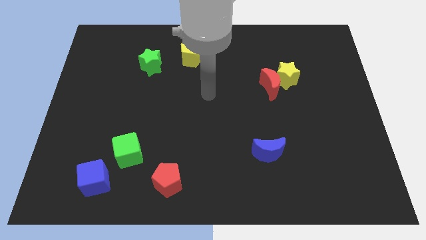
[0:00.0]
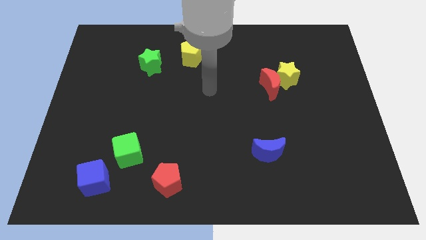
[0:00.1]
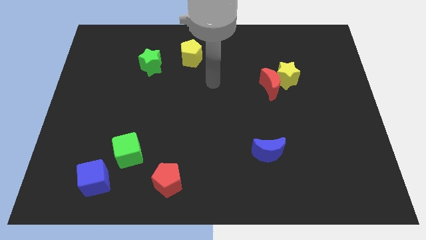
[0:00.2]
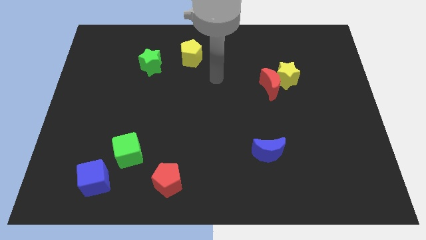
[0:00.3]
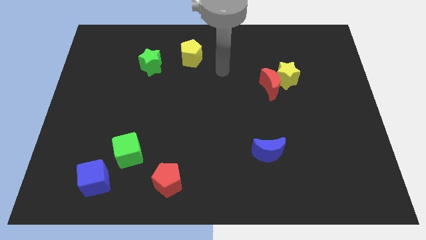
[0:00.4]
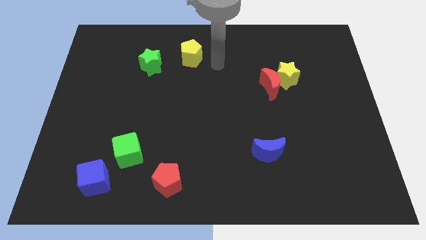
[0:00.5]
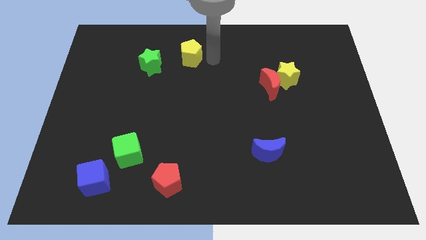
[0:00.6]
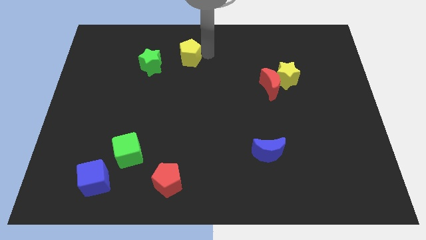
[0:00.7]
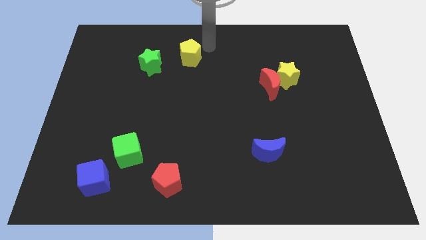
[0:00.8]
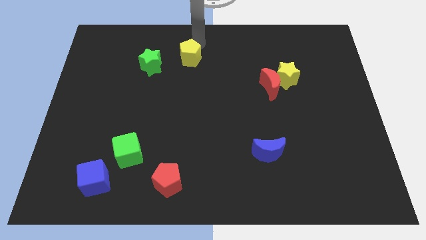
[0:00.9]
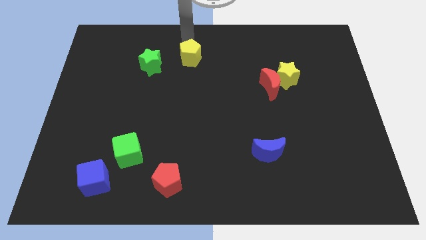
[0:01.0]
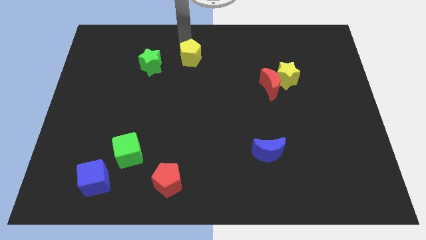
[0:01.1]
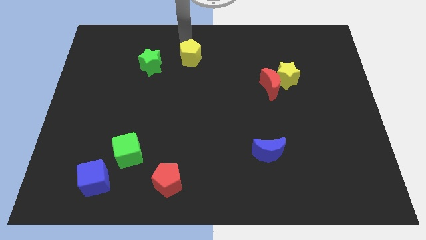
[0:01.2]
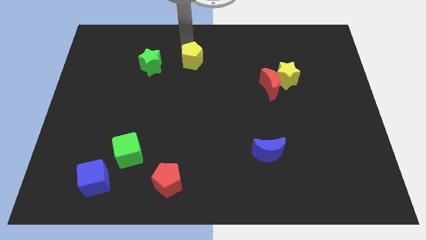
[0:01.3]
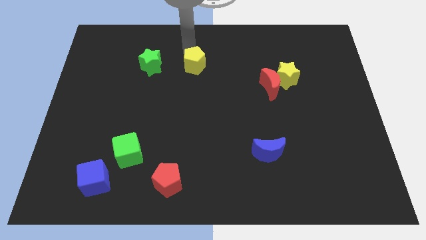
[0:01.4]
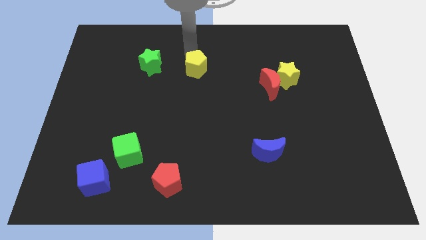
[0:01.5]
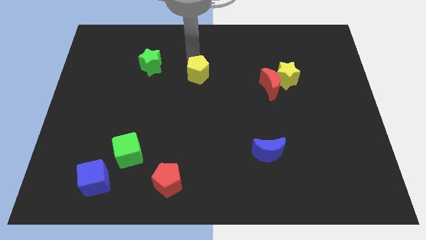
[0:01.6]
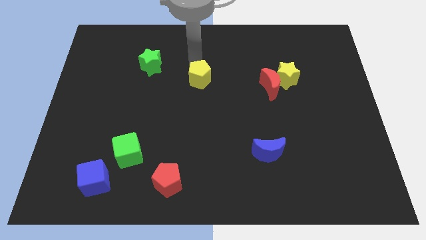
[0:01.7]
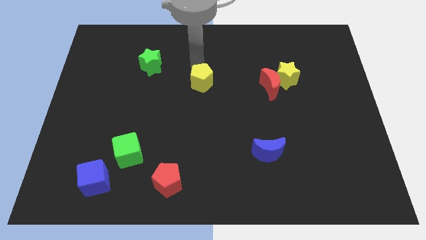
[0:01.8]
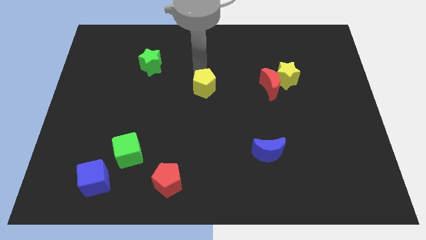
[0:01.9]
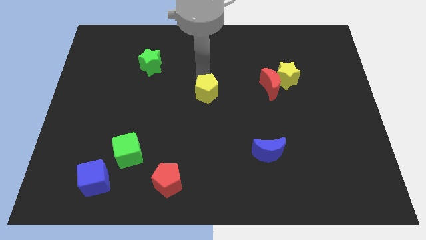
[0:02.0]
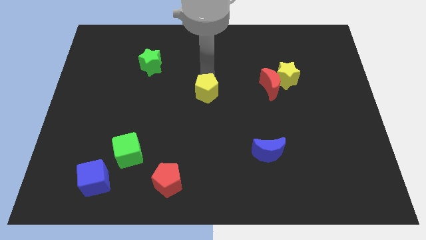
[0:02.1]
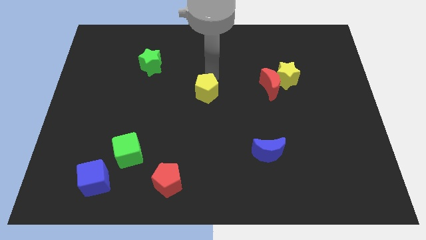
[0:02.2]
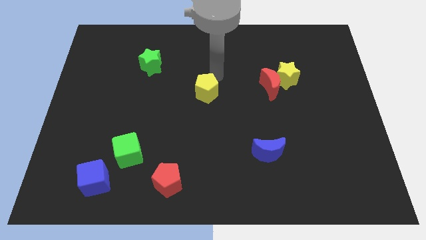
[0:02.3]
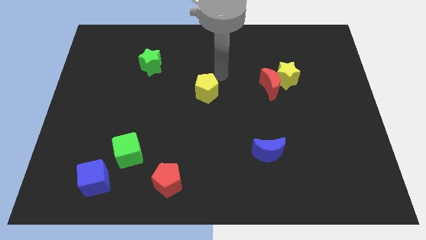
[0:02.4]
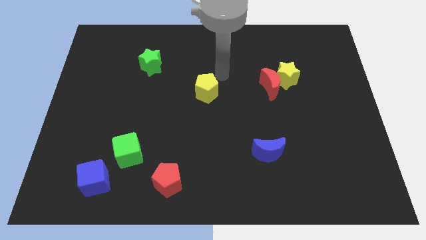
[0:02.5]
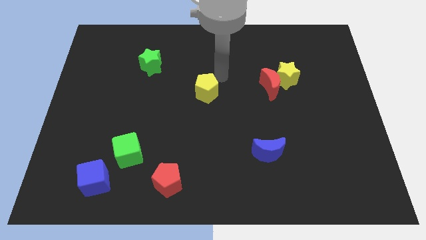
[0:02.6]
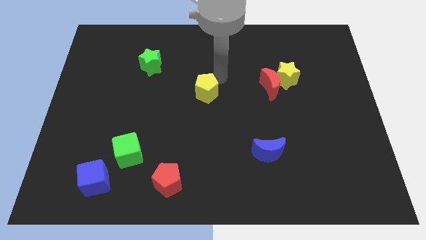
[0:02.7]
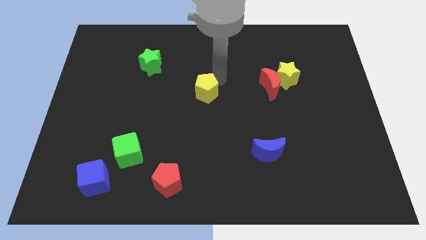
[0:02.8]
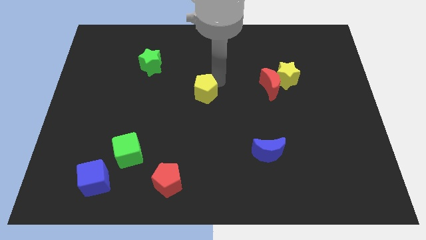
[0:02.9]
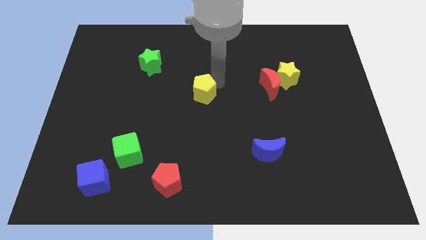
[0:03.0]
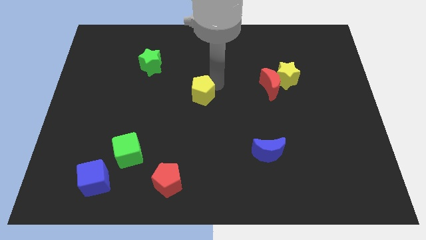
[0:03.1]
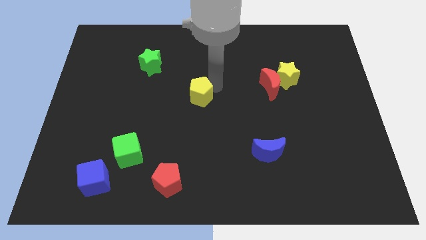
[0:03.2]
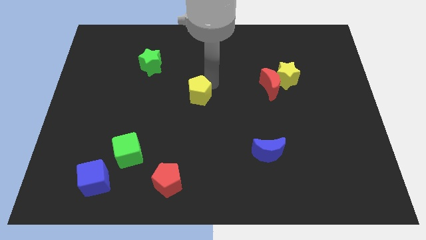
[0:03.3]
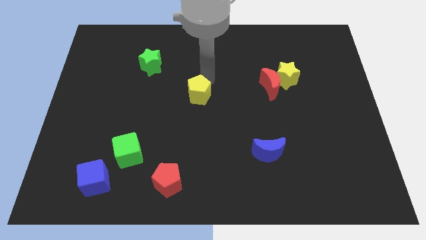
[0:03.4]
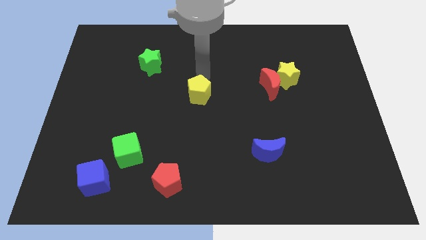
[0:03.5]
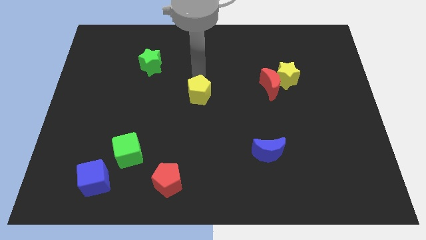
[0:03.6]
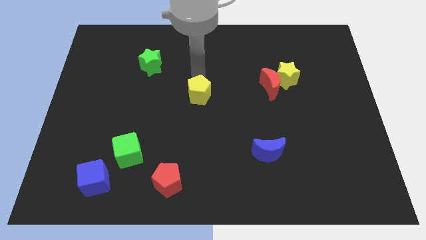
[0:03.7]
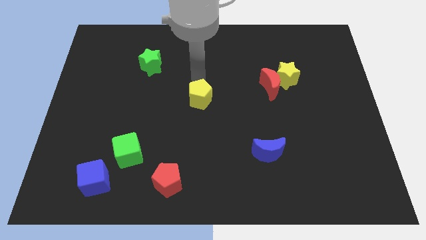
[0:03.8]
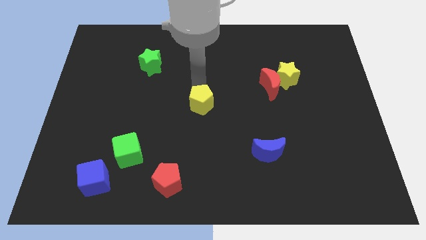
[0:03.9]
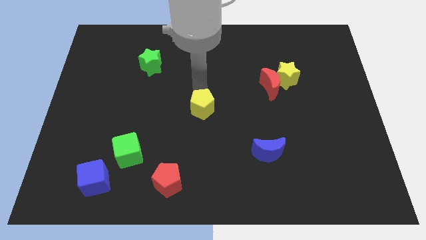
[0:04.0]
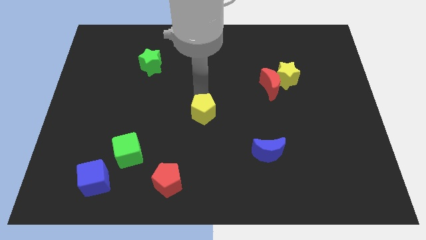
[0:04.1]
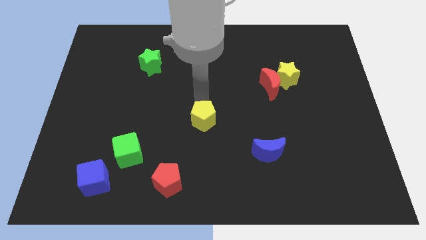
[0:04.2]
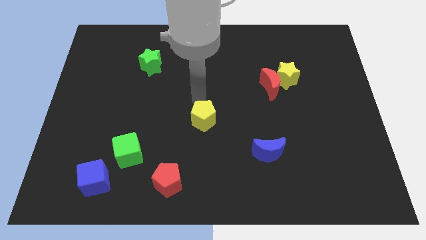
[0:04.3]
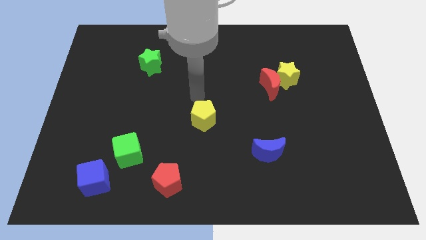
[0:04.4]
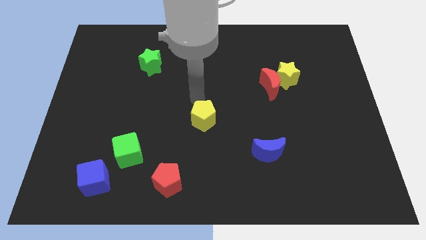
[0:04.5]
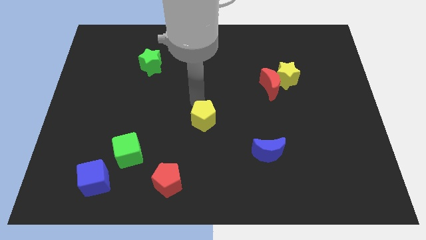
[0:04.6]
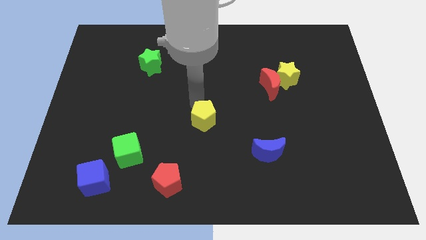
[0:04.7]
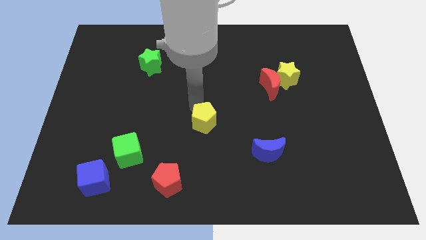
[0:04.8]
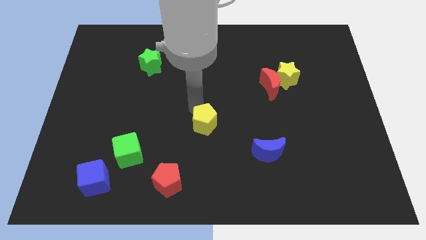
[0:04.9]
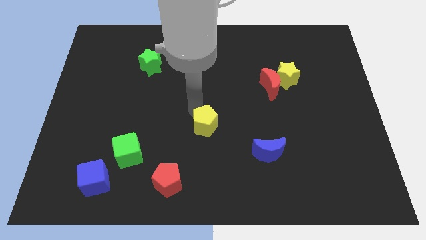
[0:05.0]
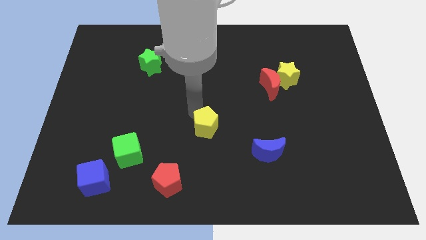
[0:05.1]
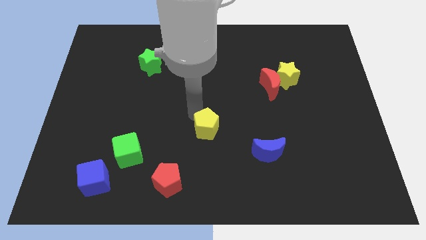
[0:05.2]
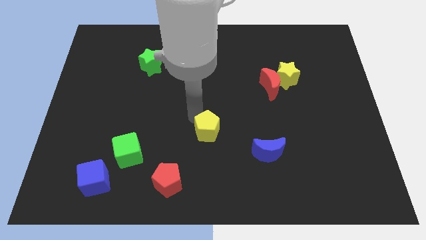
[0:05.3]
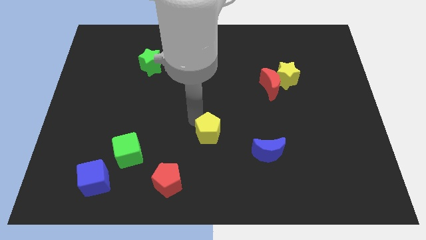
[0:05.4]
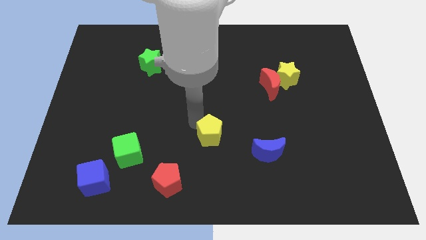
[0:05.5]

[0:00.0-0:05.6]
slide the yellow pentagon left of the blue moon

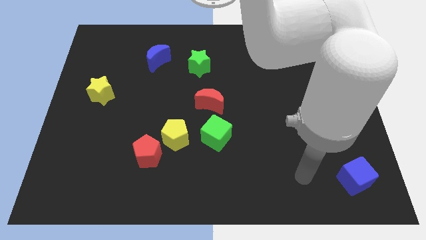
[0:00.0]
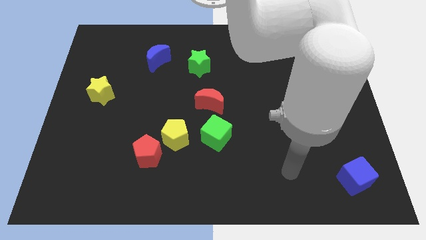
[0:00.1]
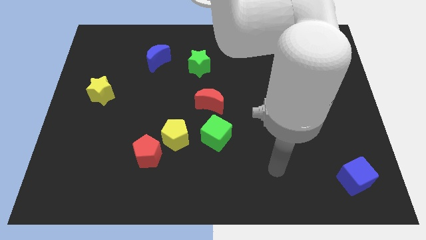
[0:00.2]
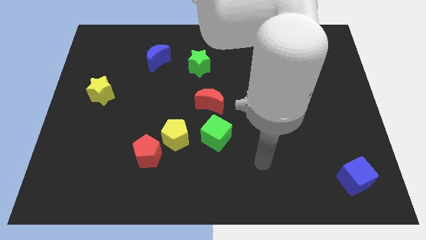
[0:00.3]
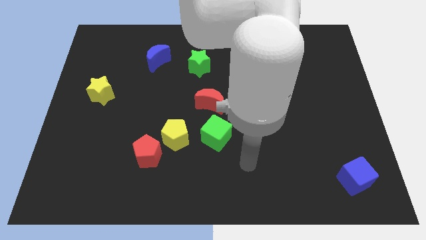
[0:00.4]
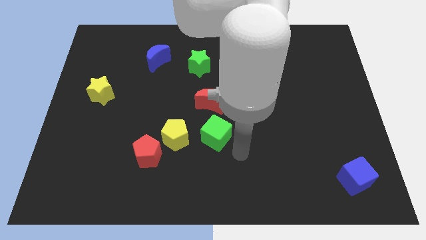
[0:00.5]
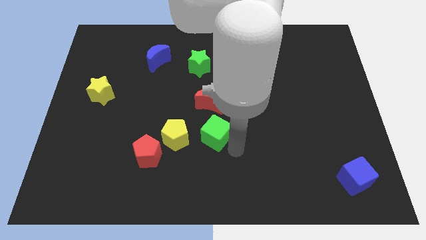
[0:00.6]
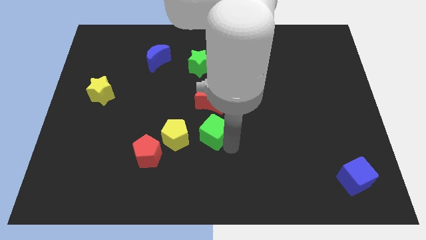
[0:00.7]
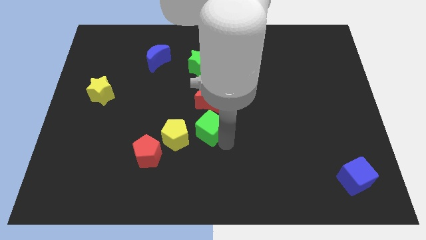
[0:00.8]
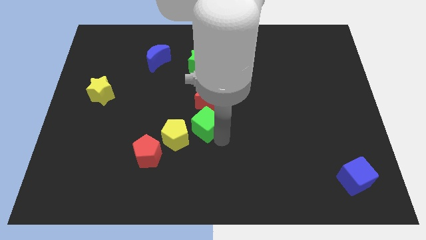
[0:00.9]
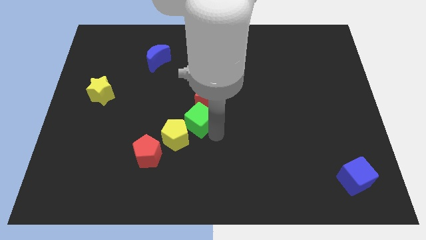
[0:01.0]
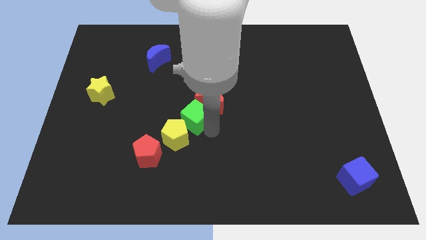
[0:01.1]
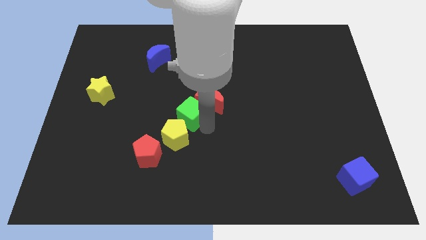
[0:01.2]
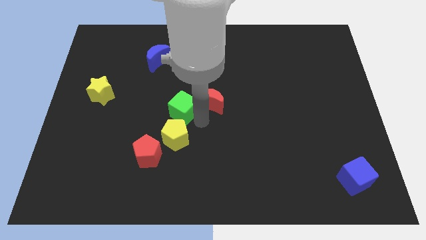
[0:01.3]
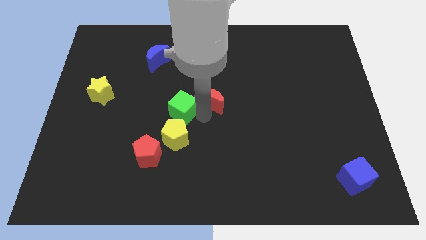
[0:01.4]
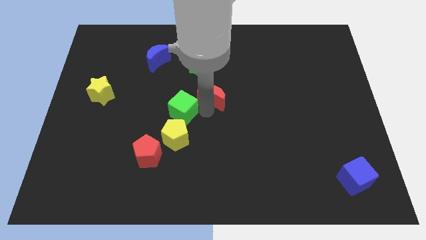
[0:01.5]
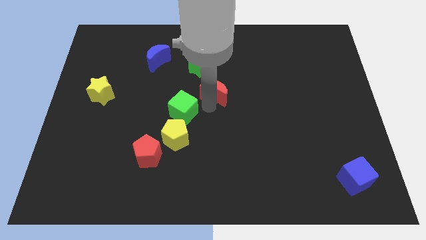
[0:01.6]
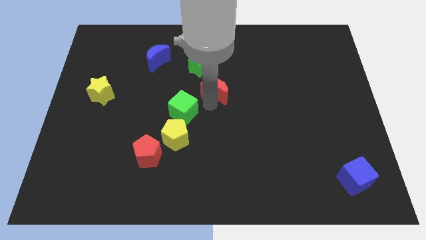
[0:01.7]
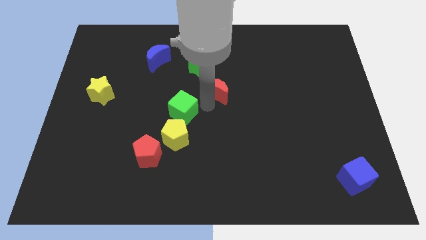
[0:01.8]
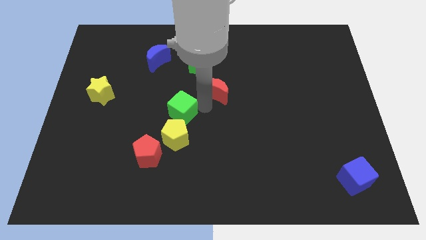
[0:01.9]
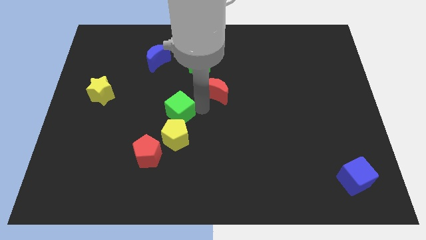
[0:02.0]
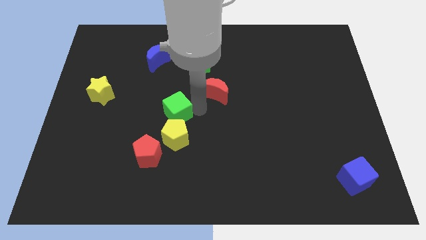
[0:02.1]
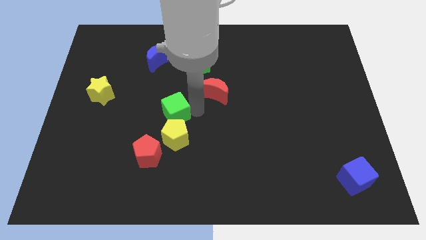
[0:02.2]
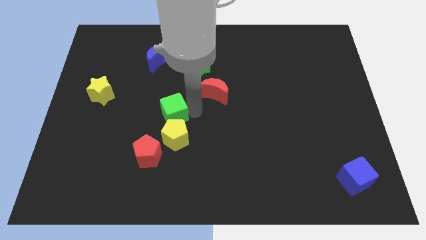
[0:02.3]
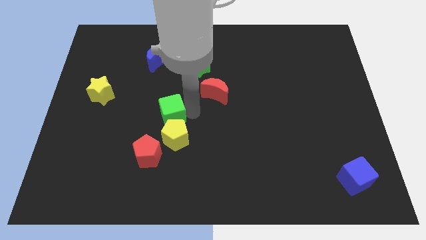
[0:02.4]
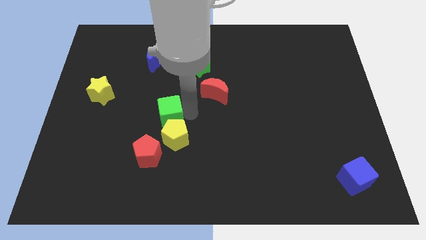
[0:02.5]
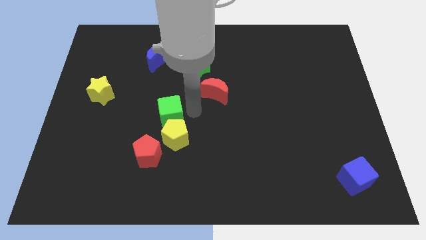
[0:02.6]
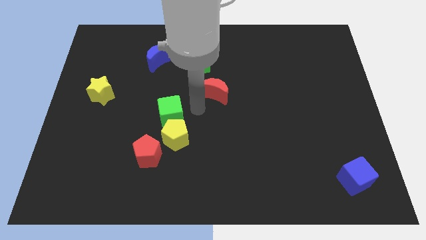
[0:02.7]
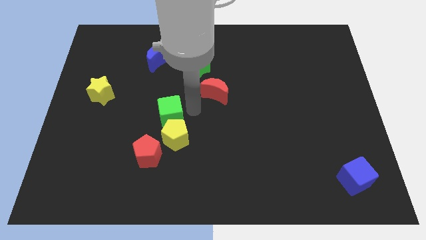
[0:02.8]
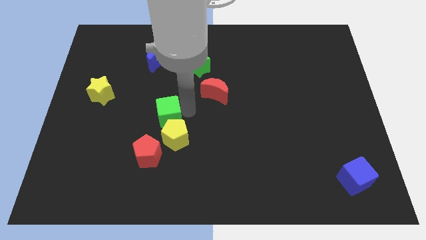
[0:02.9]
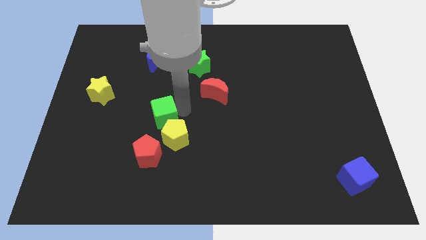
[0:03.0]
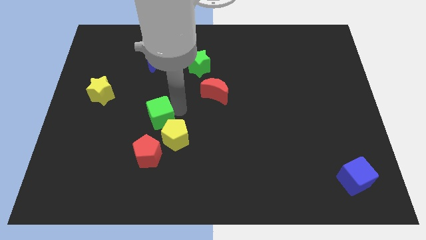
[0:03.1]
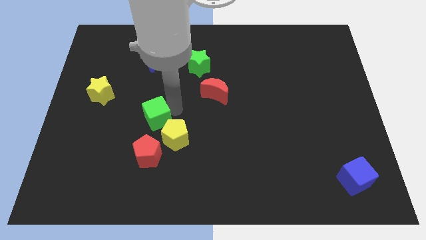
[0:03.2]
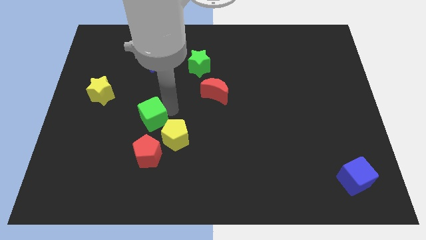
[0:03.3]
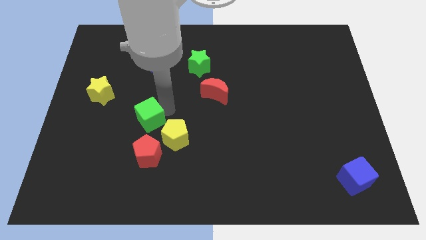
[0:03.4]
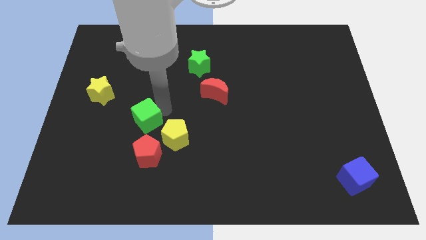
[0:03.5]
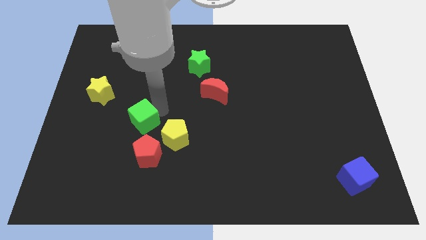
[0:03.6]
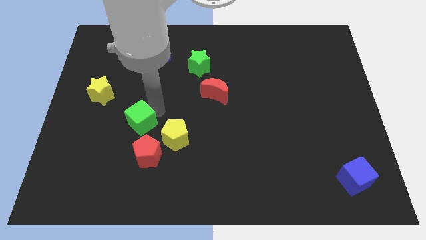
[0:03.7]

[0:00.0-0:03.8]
put the green cube to the top left side of the red pentagon
